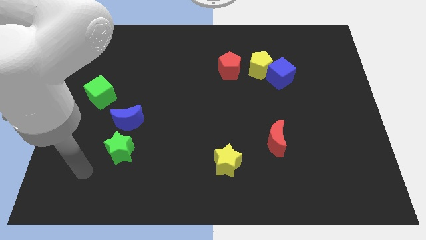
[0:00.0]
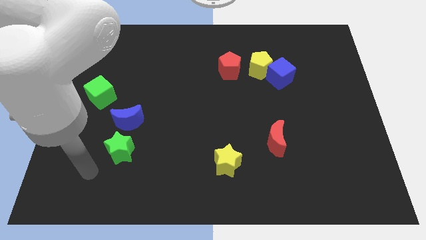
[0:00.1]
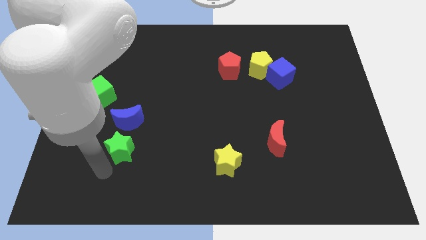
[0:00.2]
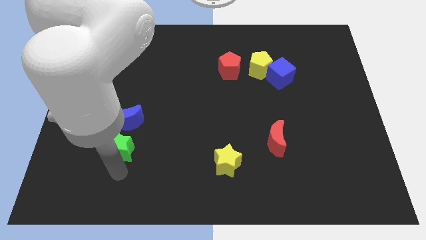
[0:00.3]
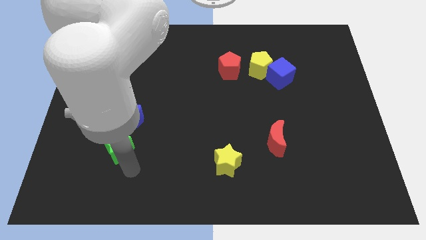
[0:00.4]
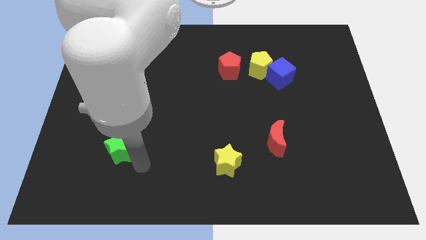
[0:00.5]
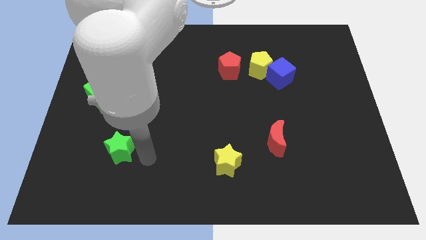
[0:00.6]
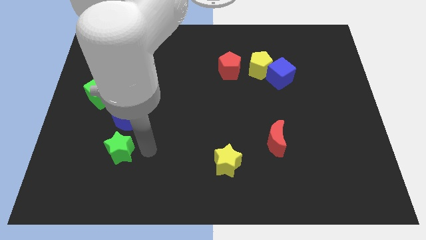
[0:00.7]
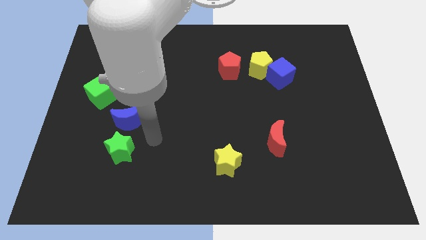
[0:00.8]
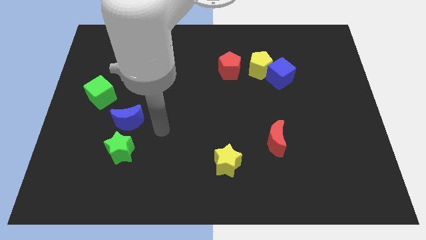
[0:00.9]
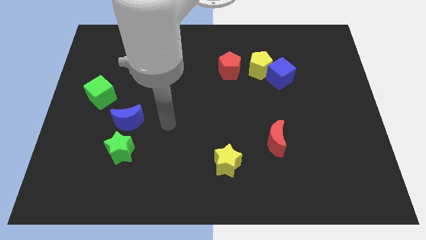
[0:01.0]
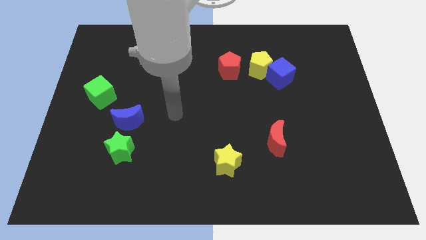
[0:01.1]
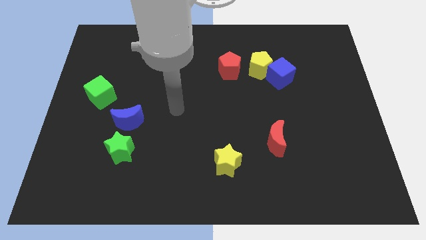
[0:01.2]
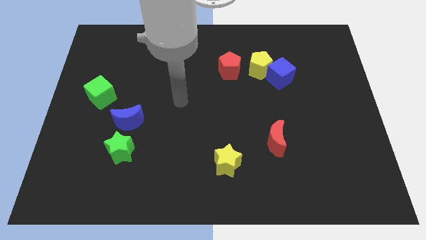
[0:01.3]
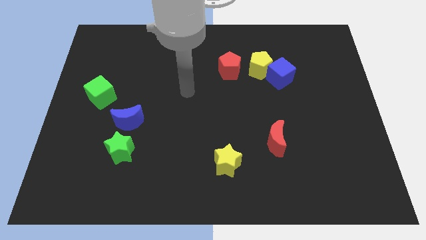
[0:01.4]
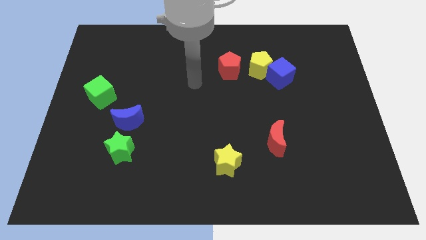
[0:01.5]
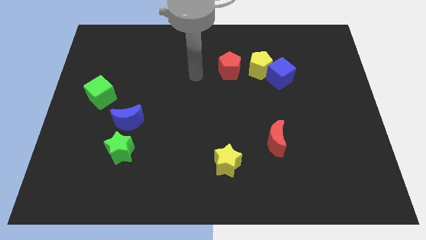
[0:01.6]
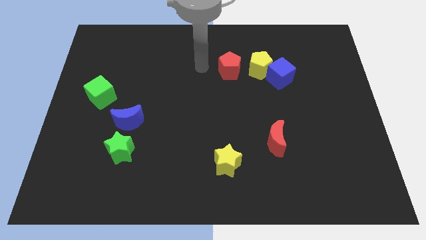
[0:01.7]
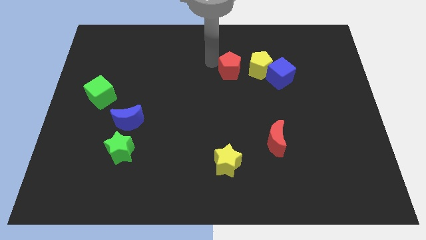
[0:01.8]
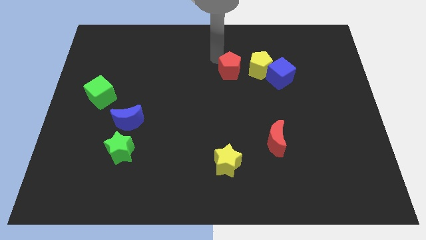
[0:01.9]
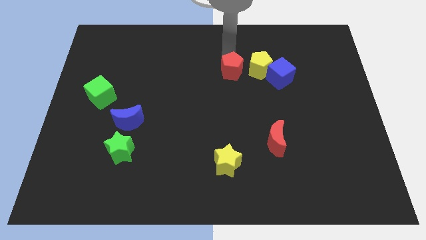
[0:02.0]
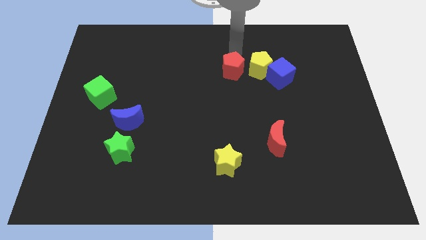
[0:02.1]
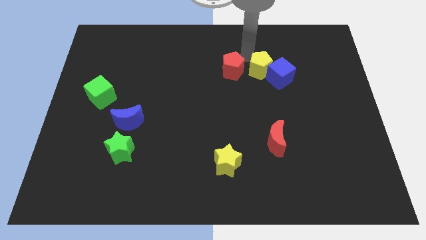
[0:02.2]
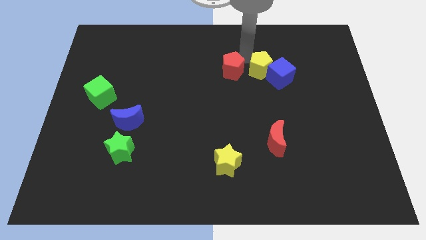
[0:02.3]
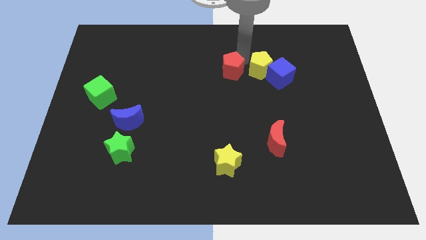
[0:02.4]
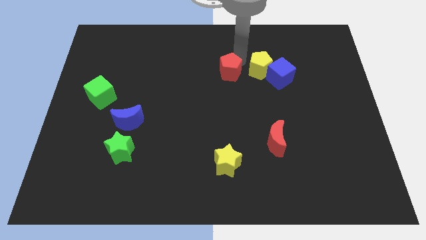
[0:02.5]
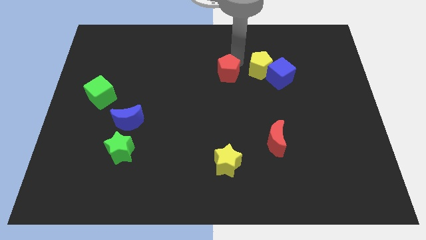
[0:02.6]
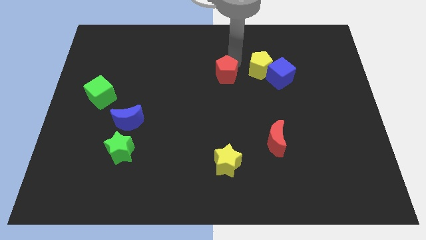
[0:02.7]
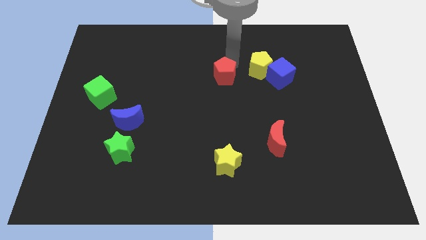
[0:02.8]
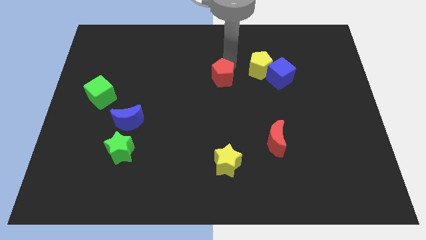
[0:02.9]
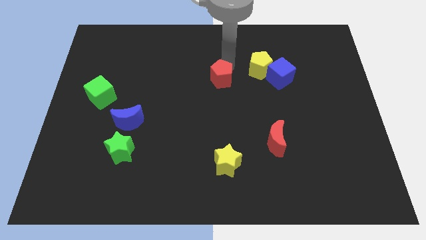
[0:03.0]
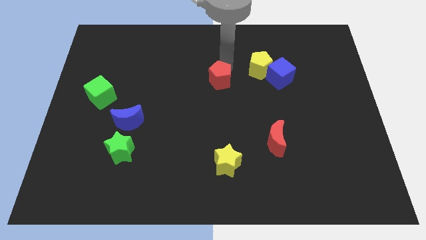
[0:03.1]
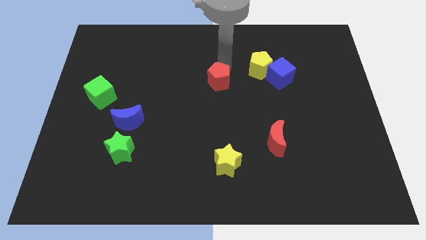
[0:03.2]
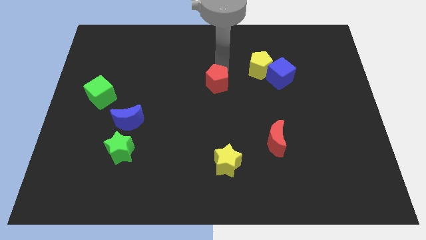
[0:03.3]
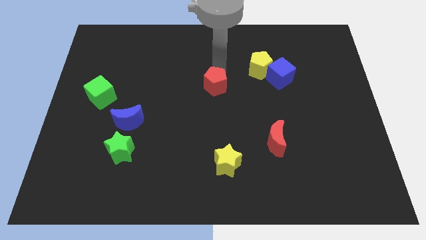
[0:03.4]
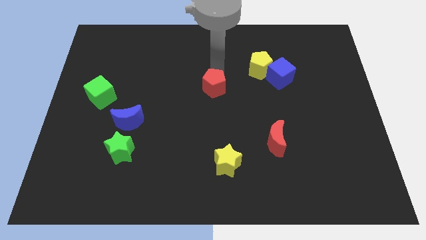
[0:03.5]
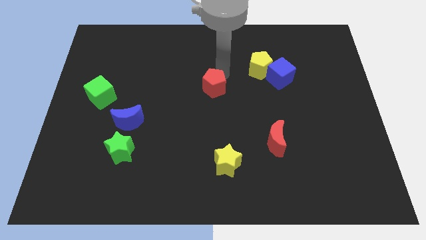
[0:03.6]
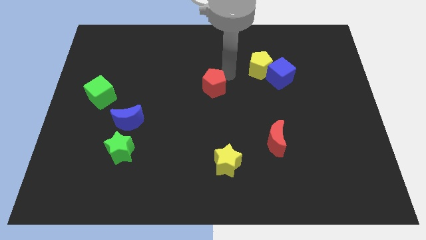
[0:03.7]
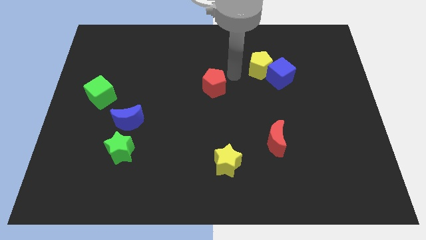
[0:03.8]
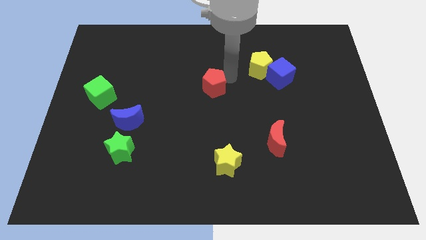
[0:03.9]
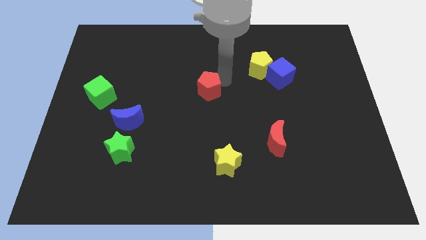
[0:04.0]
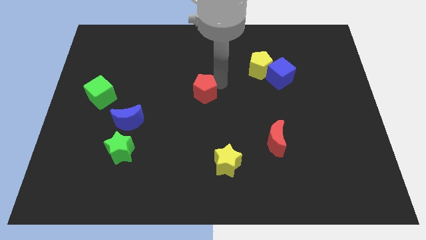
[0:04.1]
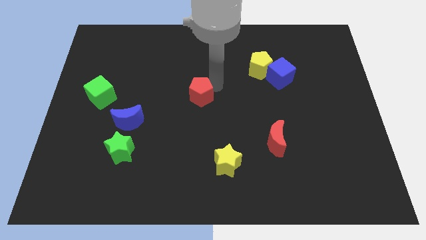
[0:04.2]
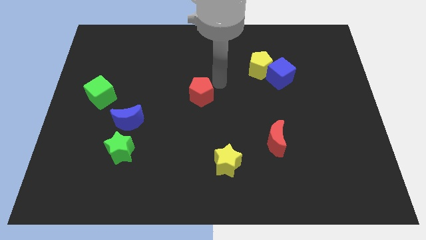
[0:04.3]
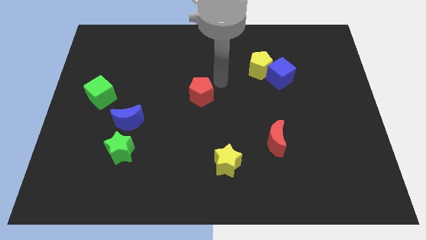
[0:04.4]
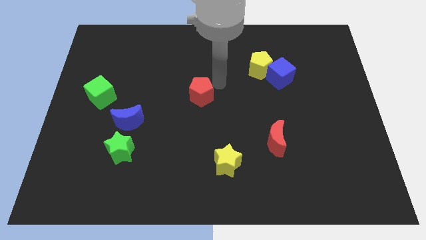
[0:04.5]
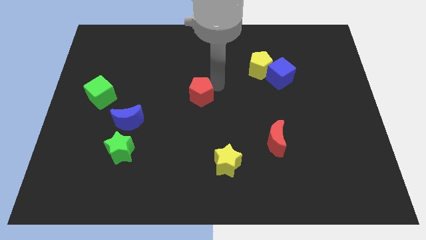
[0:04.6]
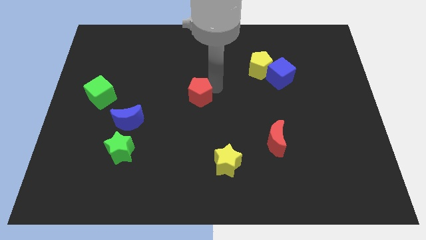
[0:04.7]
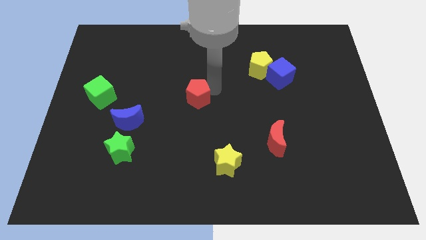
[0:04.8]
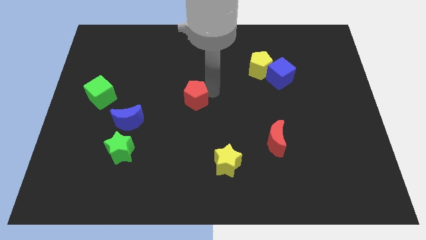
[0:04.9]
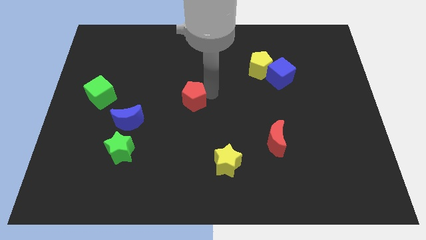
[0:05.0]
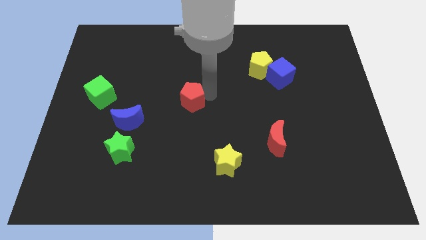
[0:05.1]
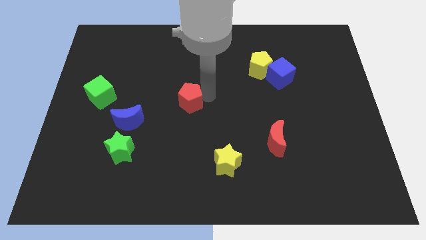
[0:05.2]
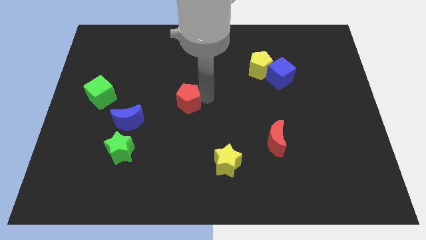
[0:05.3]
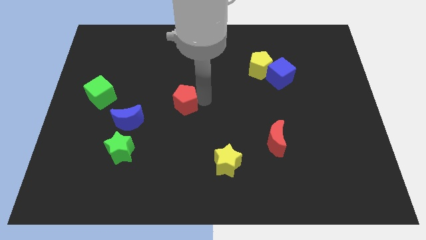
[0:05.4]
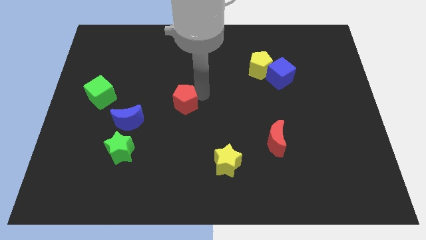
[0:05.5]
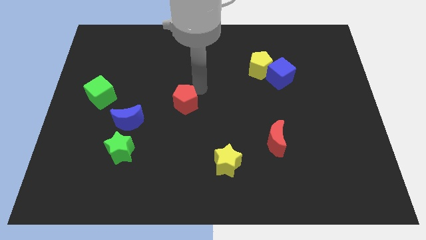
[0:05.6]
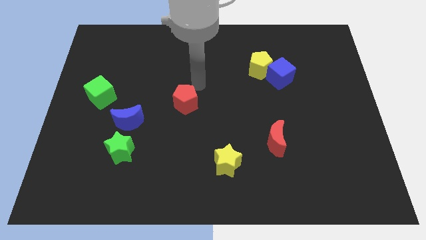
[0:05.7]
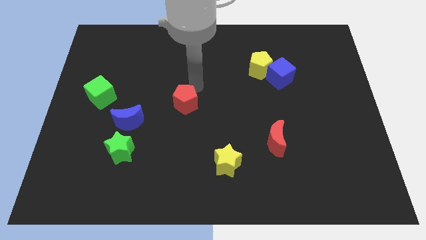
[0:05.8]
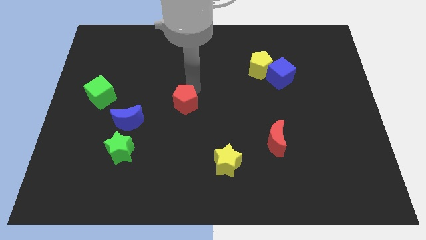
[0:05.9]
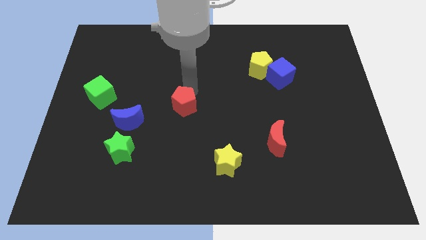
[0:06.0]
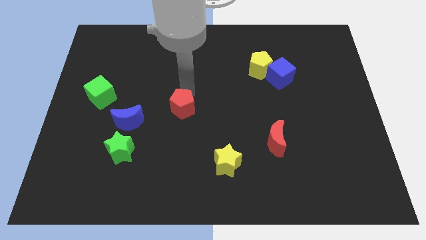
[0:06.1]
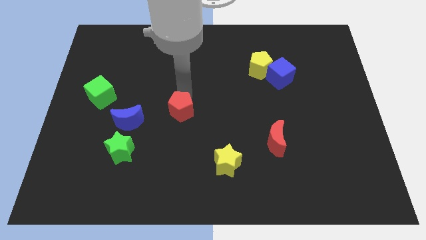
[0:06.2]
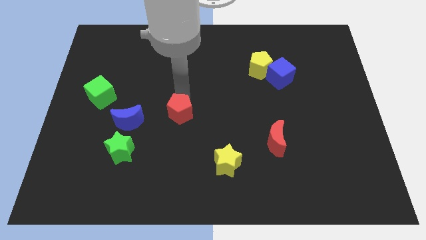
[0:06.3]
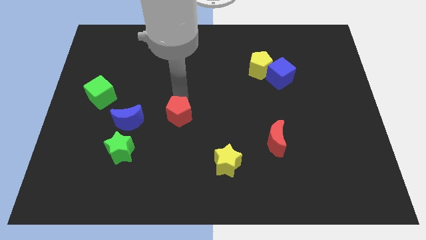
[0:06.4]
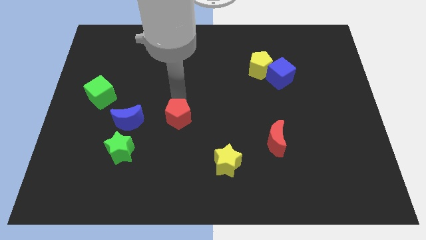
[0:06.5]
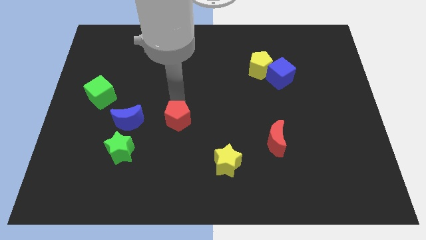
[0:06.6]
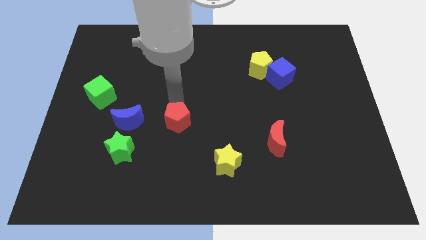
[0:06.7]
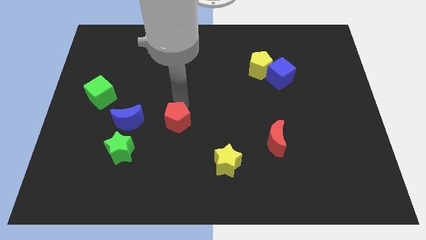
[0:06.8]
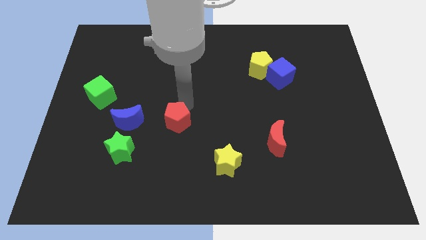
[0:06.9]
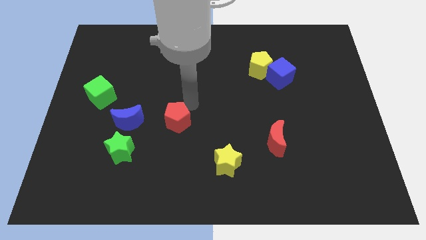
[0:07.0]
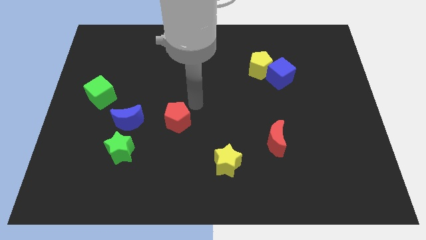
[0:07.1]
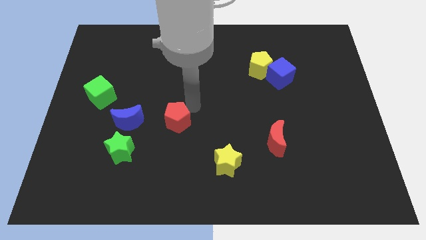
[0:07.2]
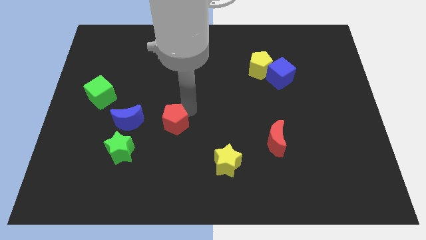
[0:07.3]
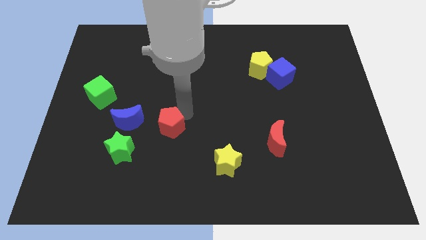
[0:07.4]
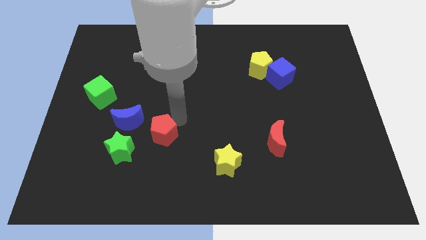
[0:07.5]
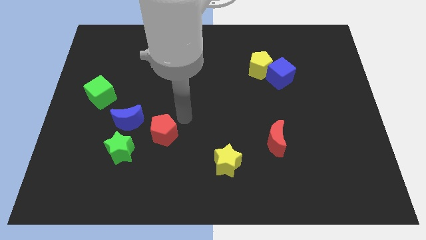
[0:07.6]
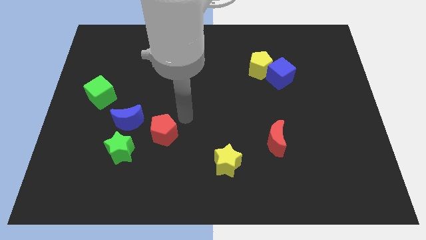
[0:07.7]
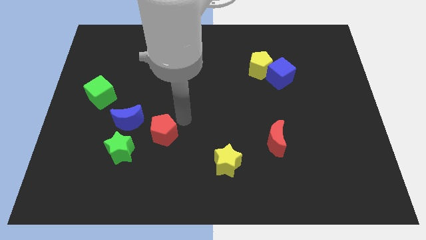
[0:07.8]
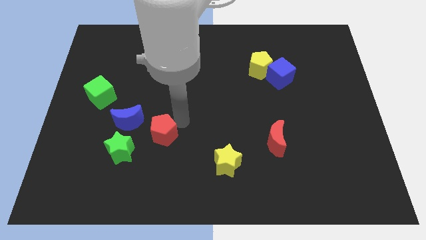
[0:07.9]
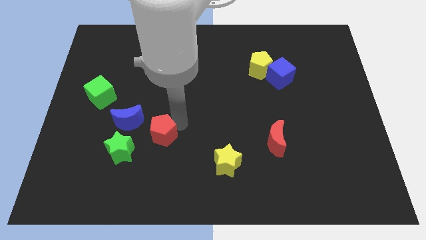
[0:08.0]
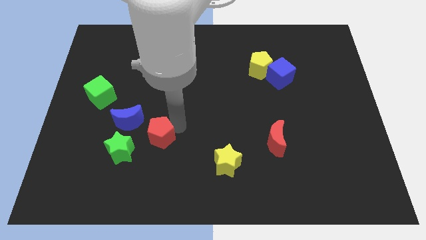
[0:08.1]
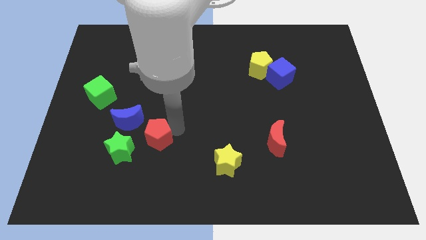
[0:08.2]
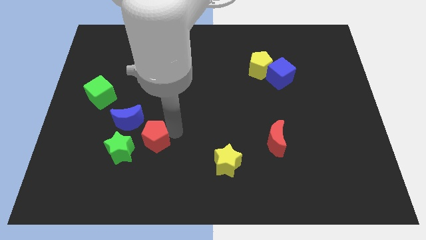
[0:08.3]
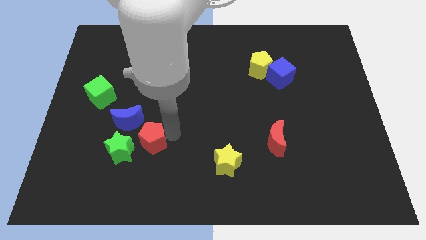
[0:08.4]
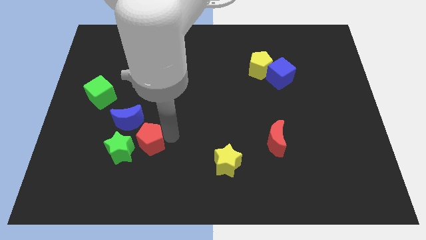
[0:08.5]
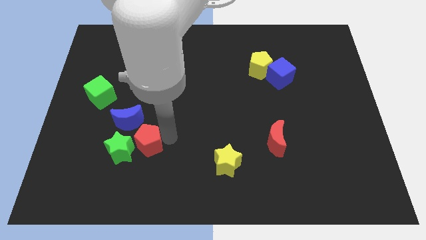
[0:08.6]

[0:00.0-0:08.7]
push the red pentagon next to the green star
